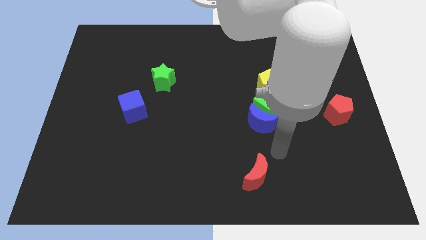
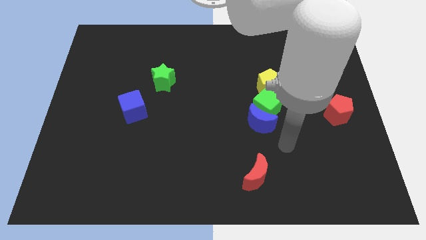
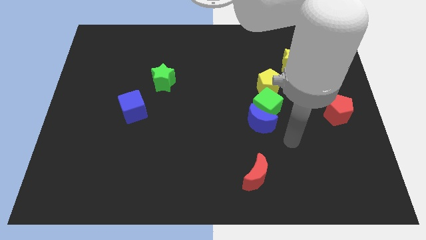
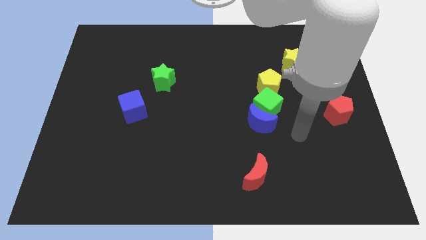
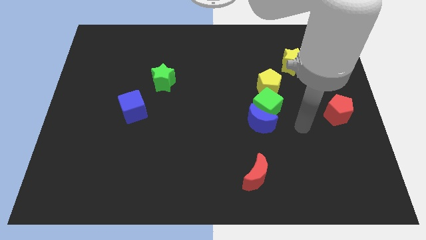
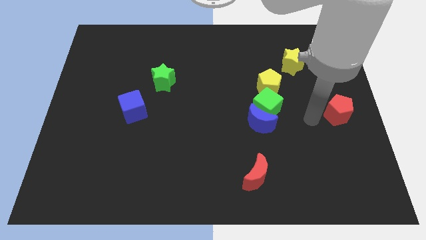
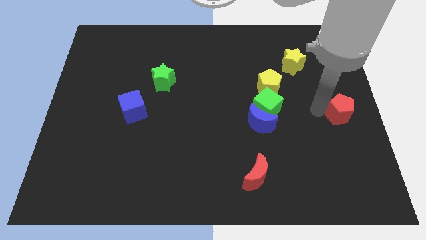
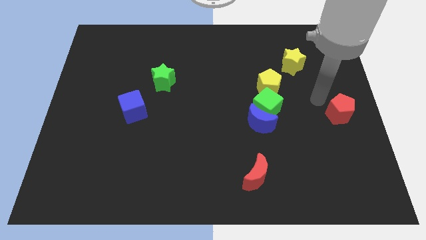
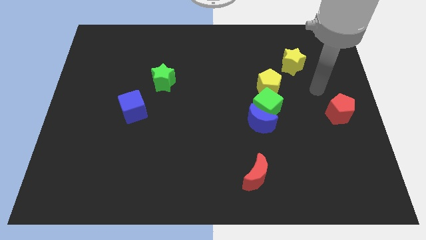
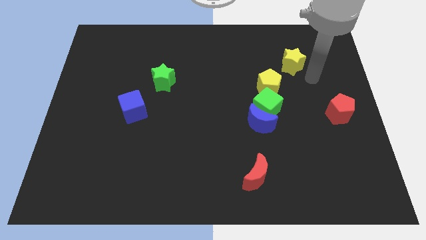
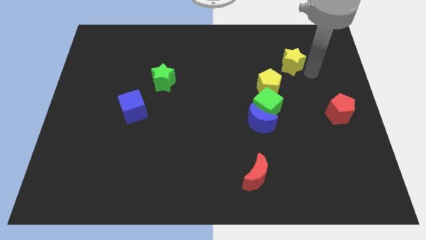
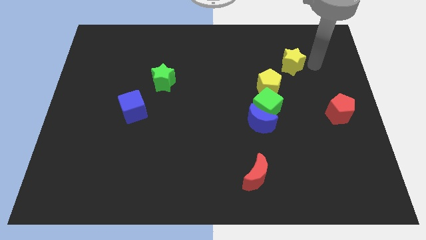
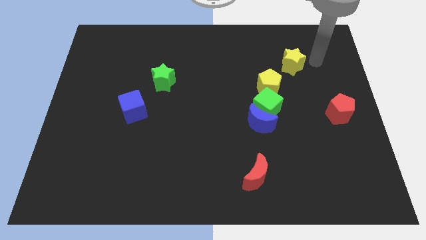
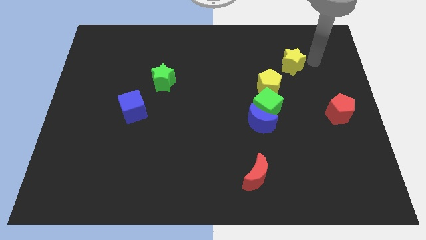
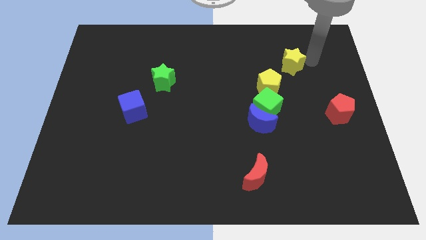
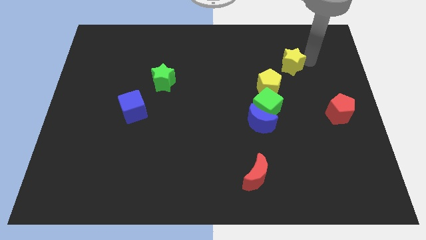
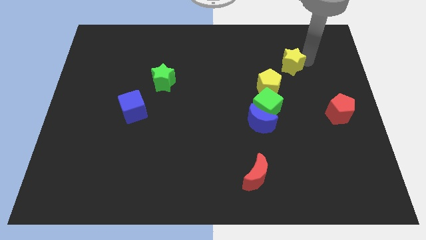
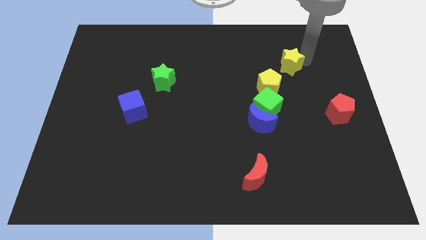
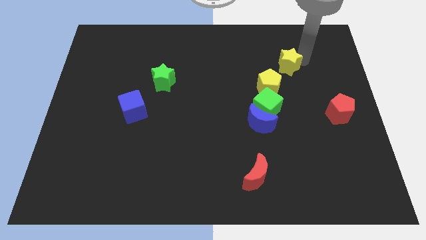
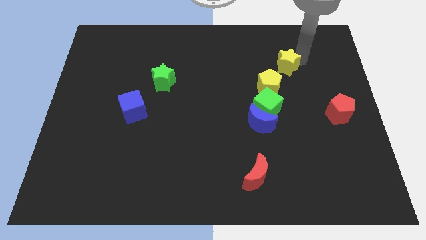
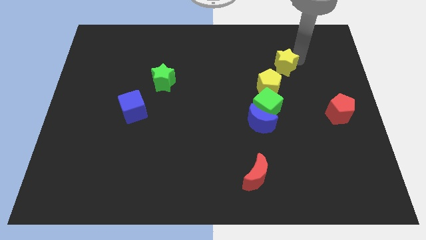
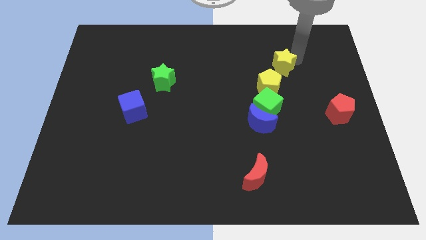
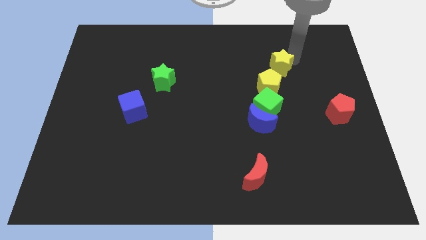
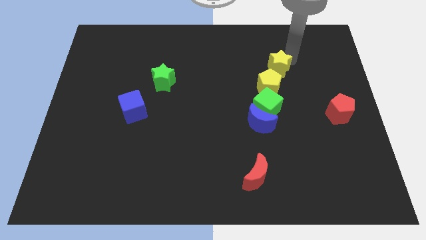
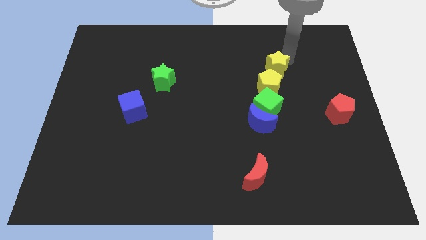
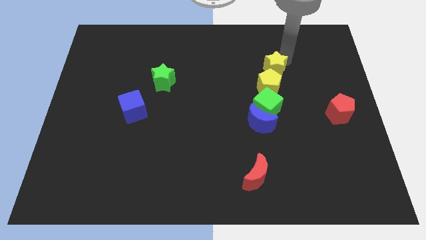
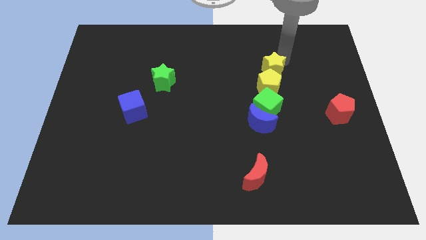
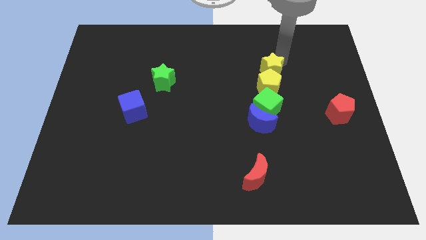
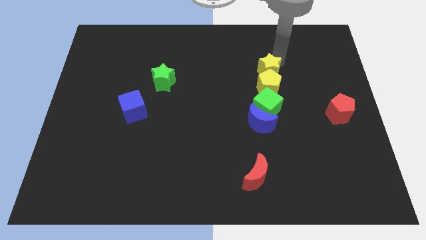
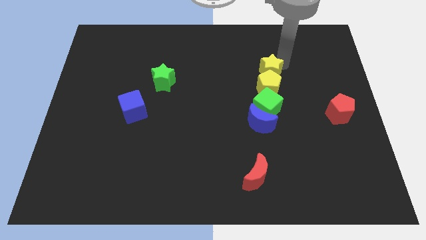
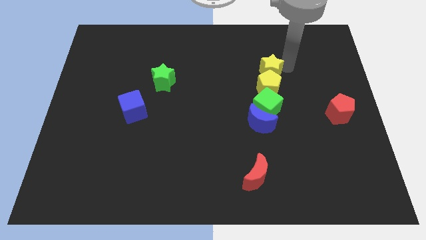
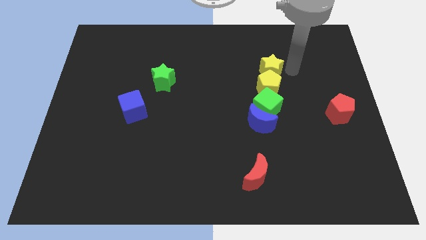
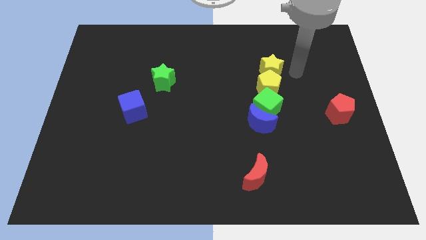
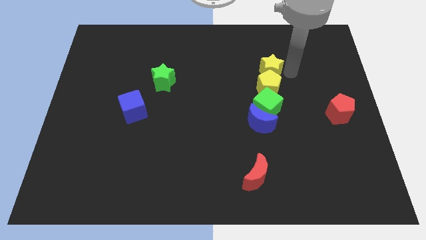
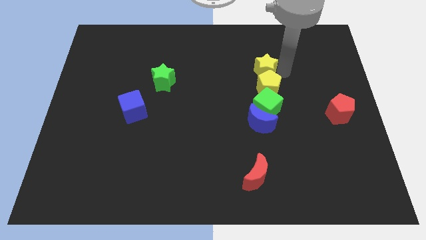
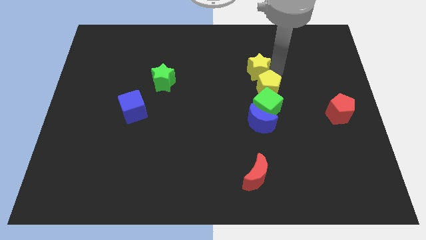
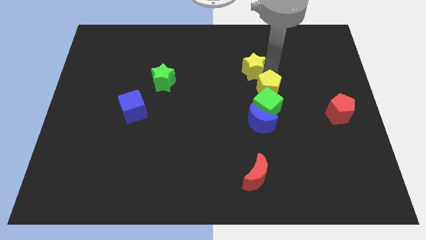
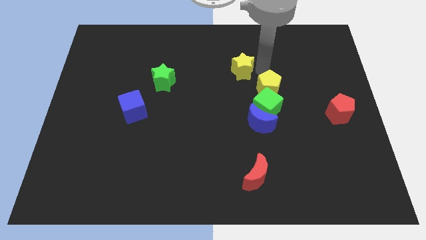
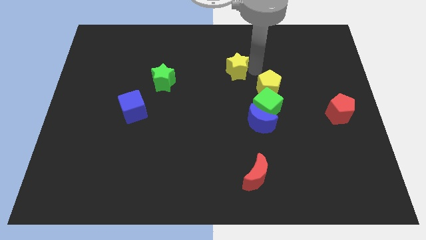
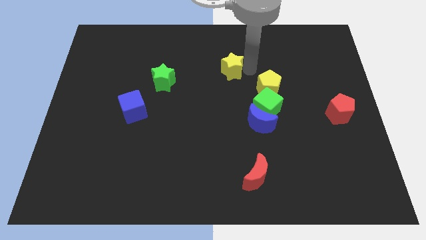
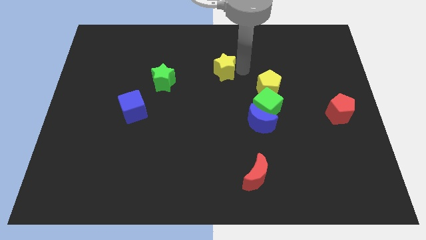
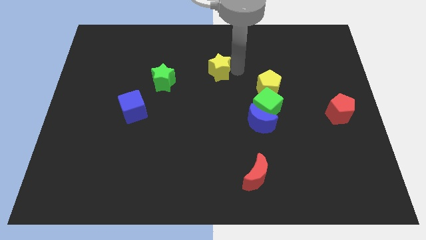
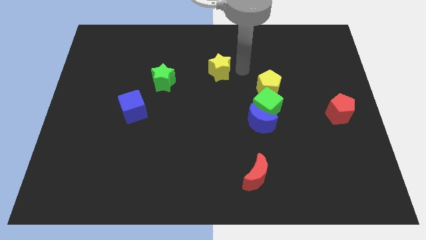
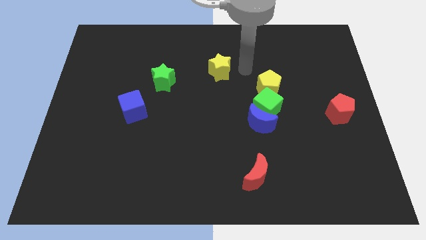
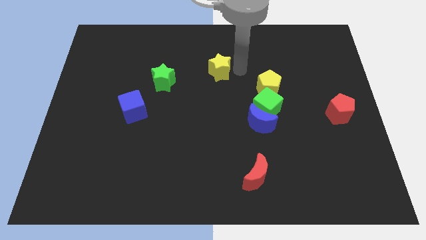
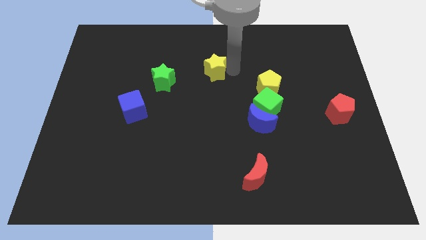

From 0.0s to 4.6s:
push the yellow star left

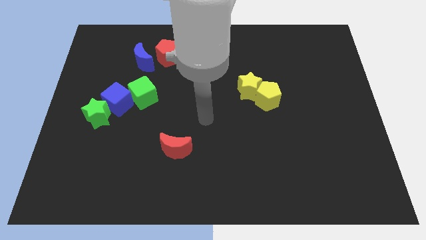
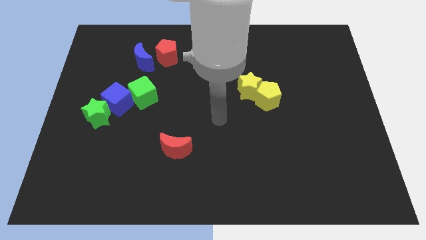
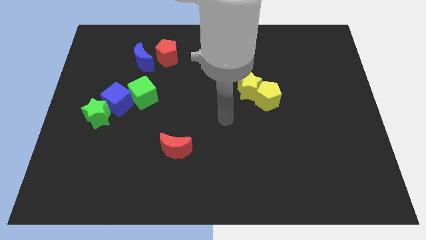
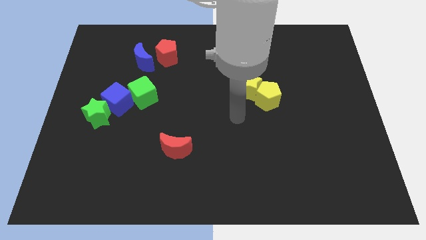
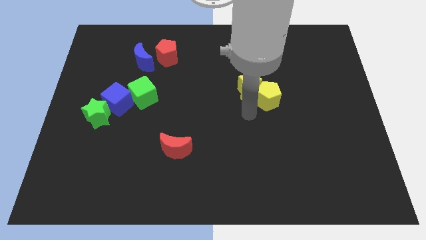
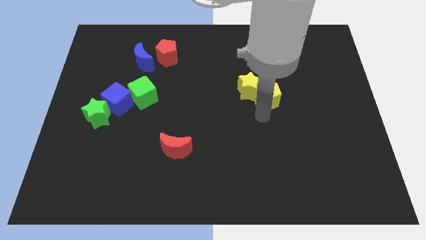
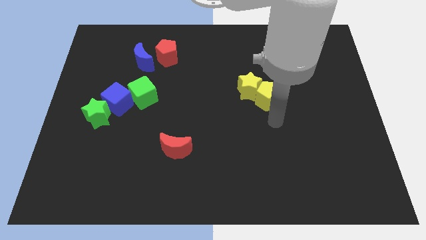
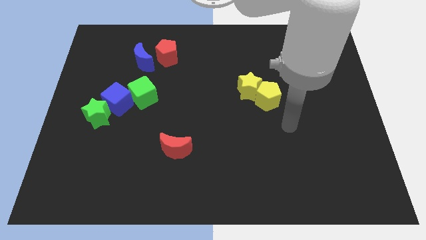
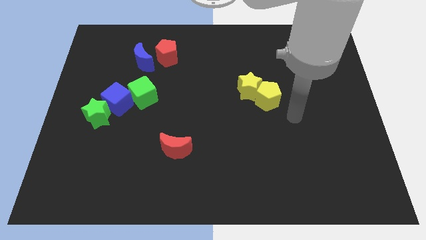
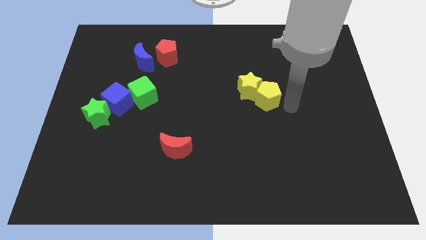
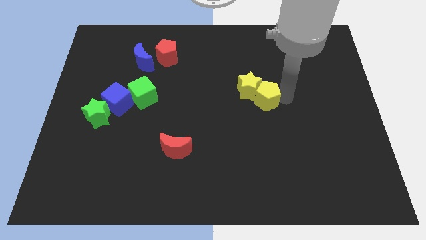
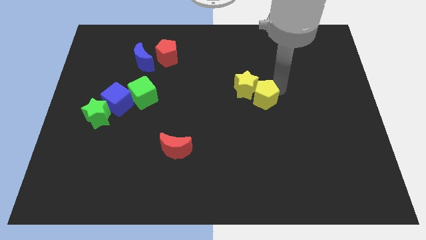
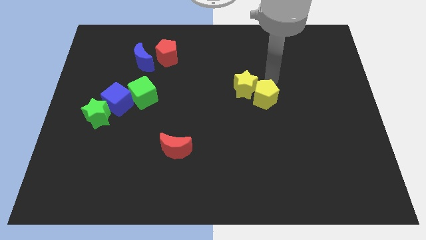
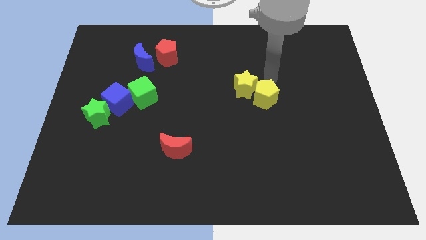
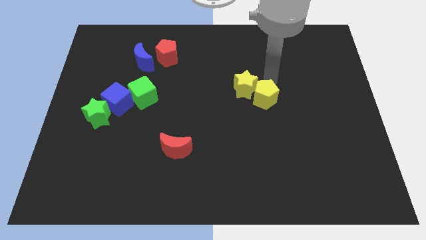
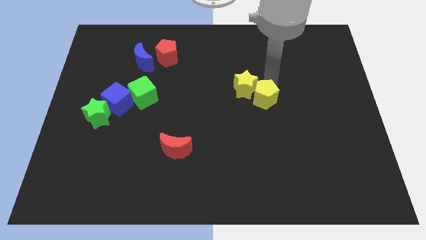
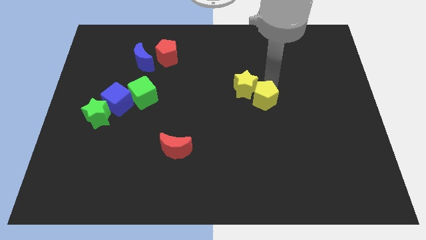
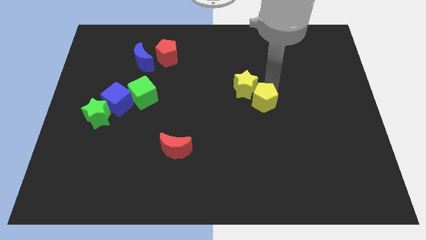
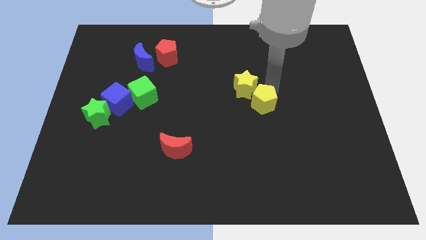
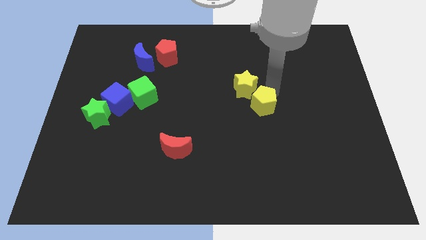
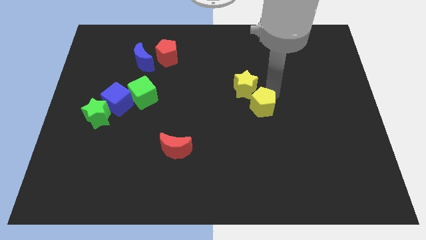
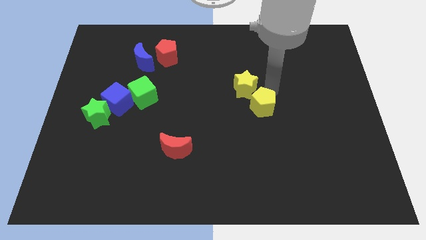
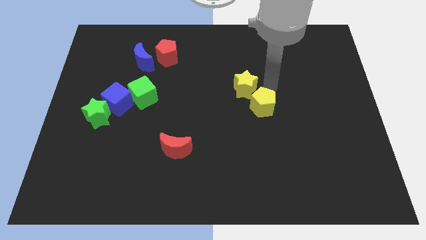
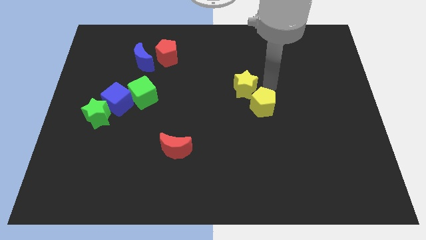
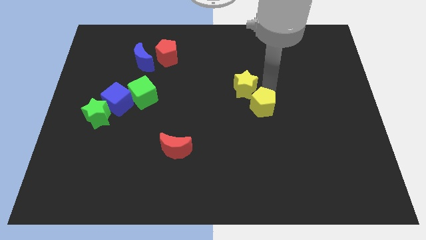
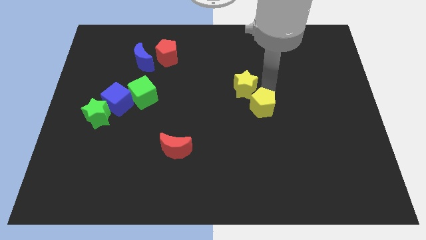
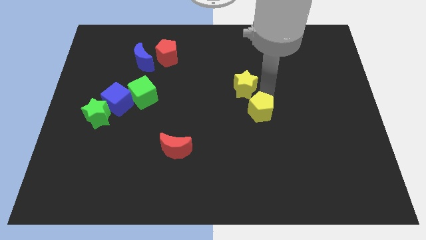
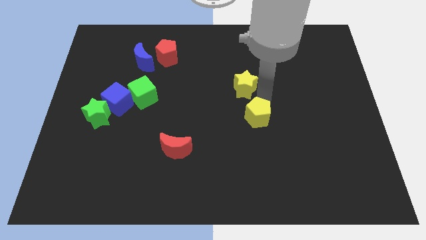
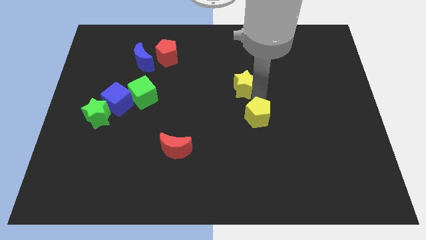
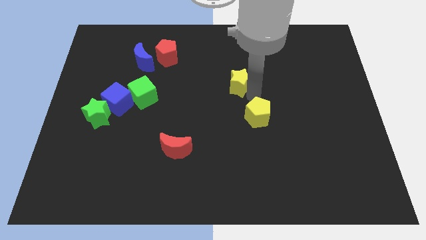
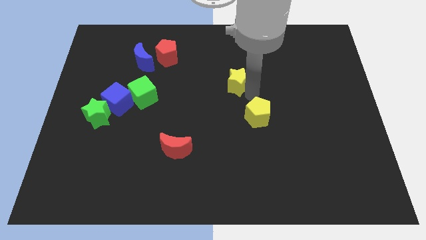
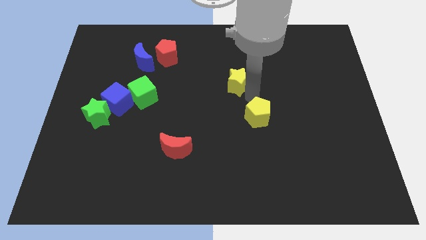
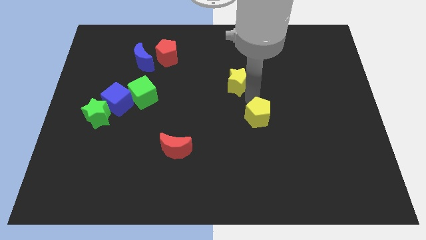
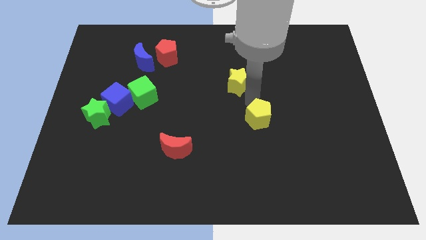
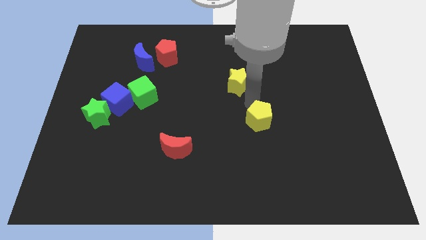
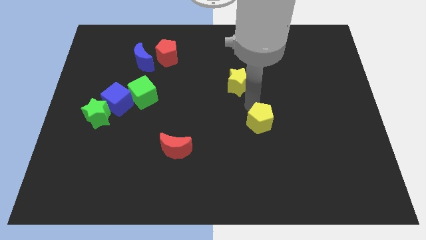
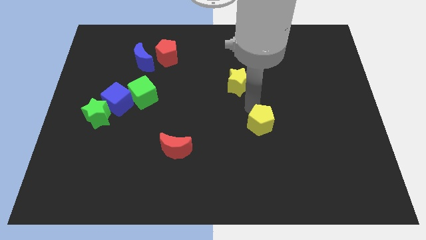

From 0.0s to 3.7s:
push the yellow pentagon down slightly
